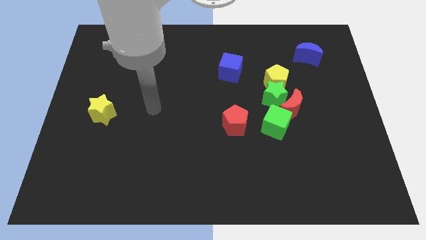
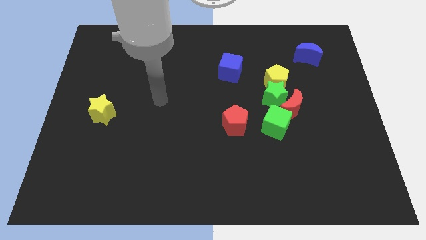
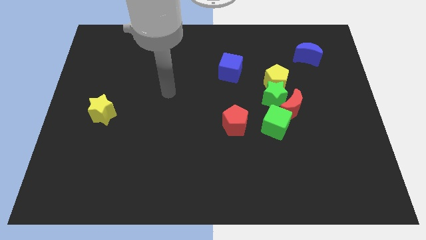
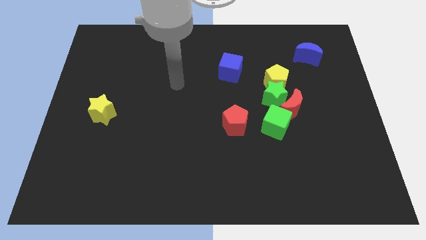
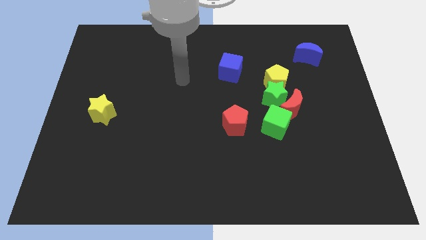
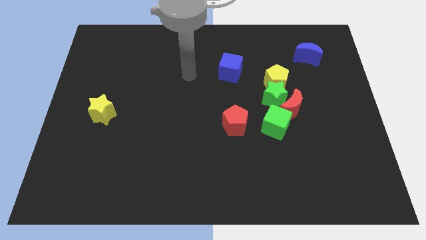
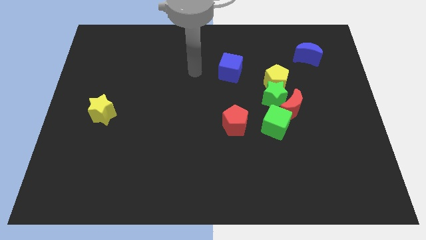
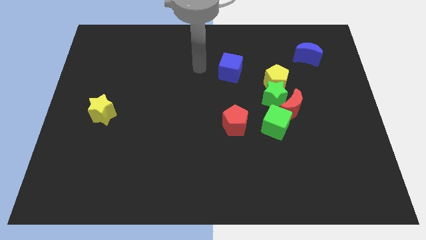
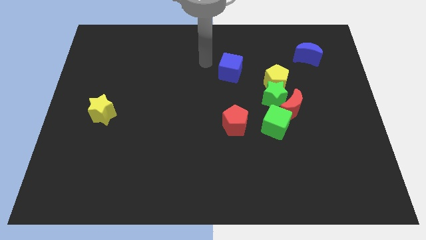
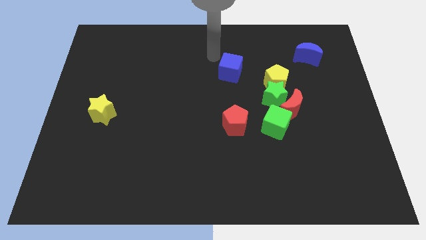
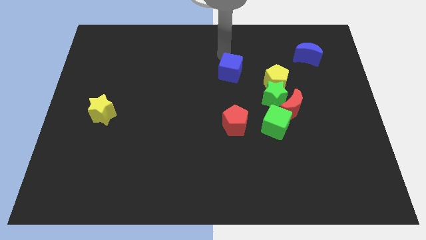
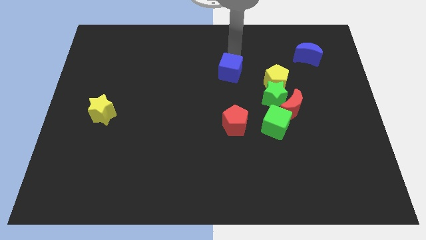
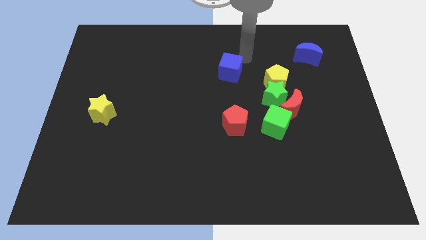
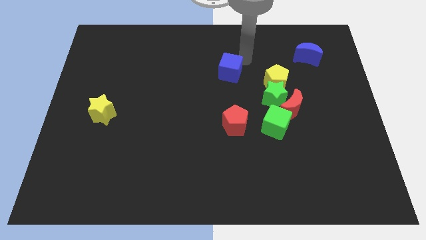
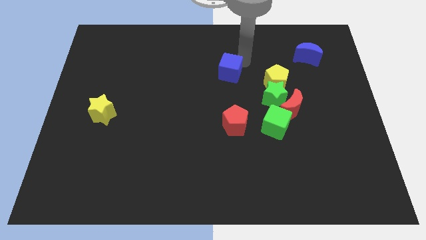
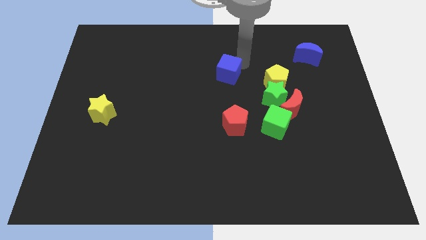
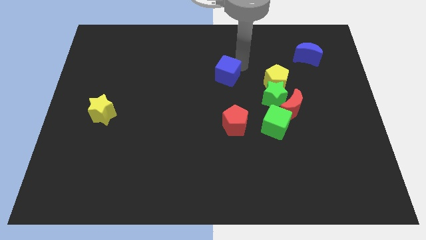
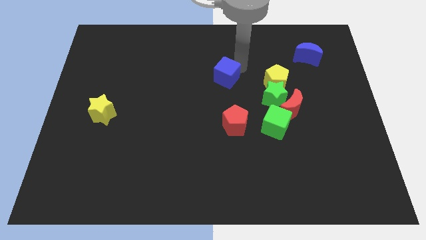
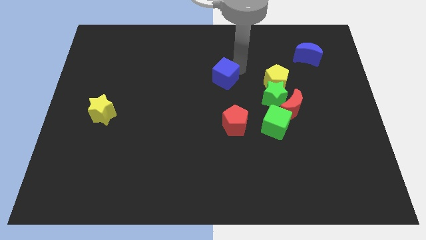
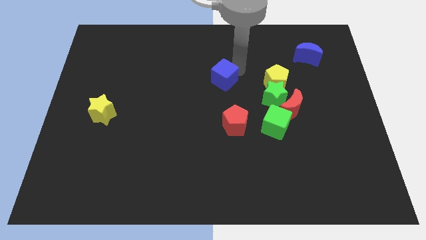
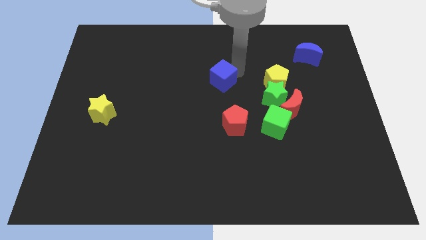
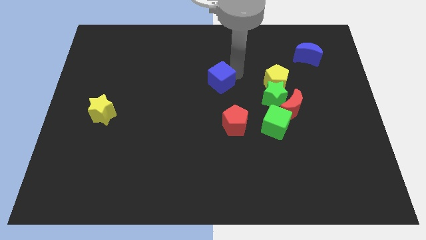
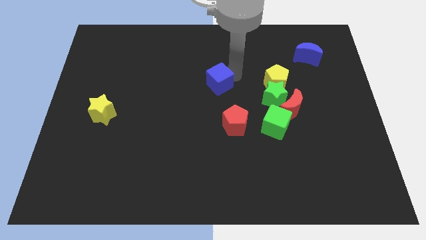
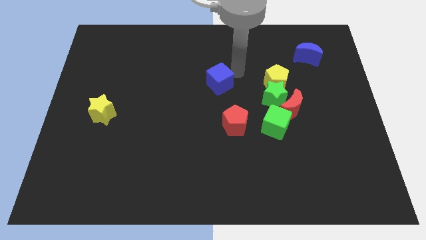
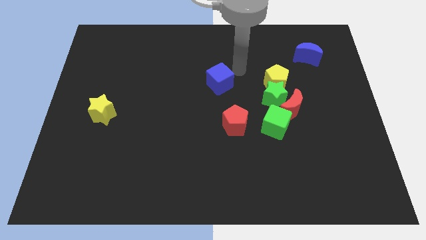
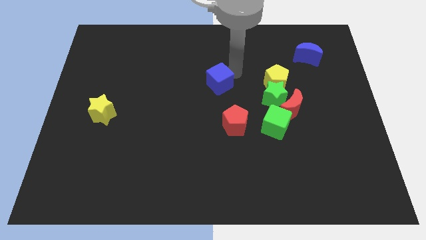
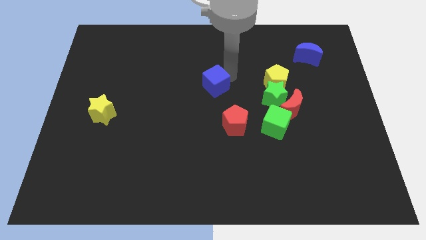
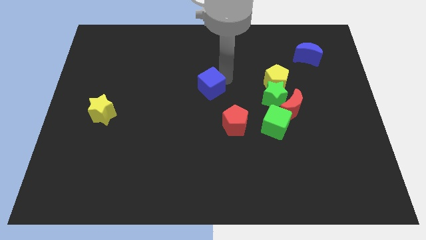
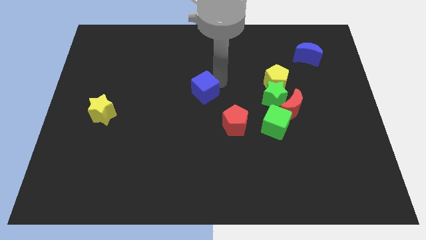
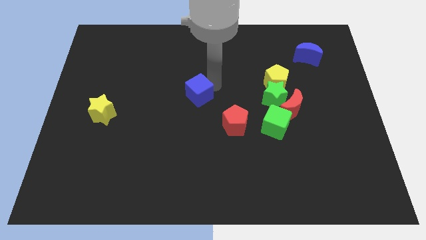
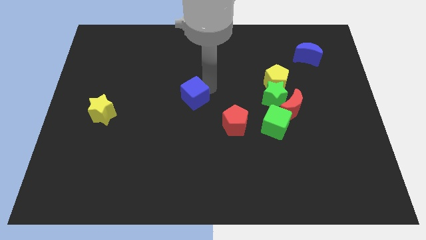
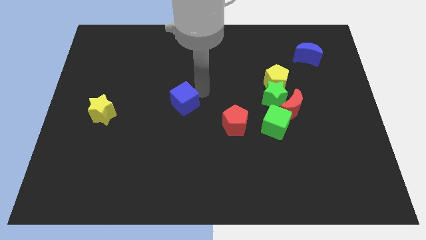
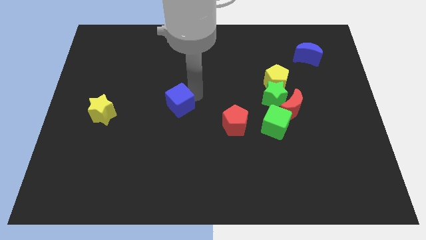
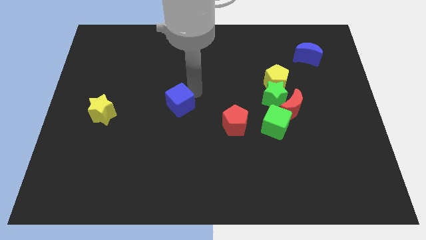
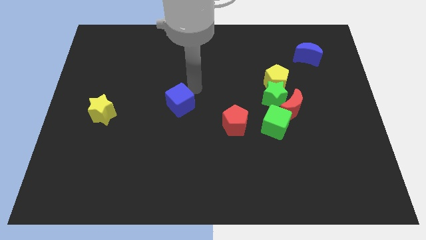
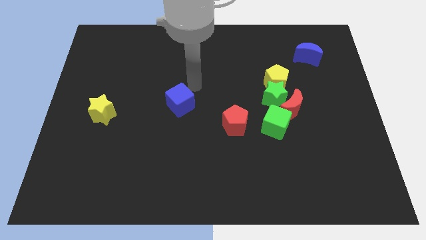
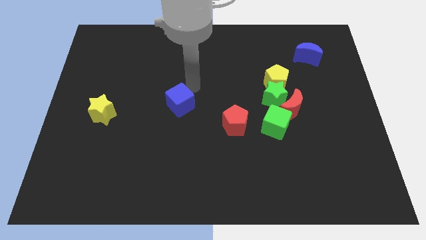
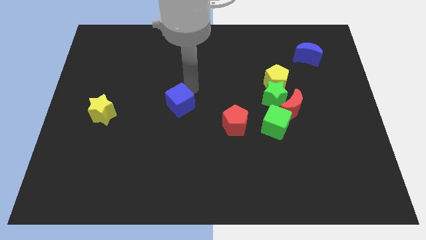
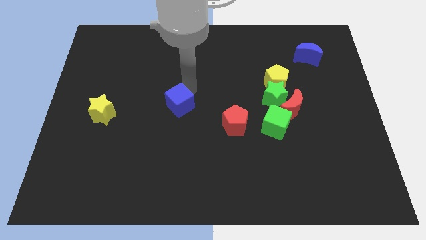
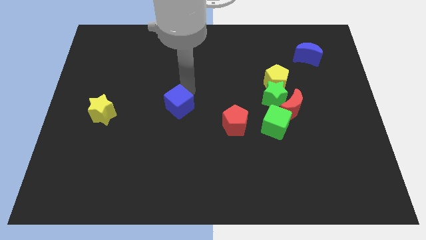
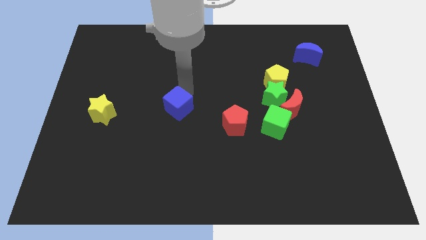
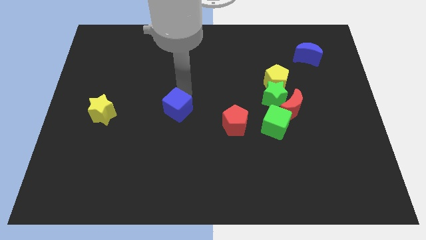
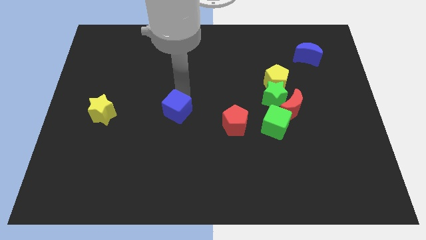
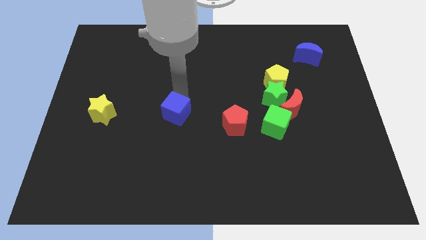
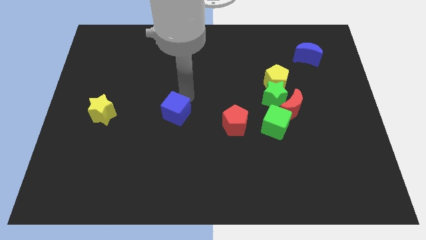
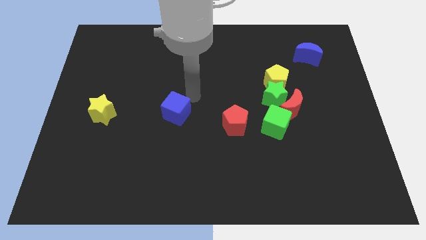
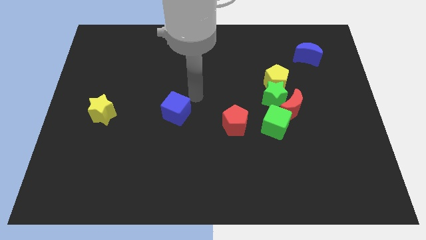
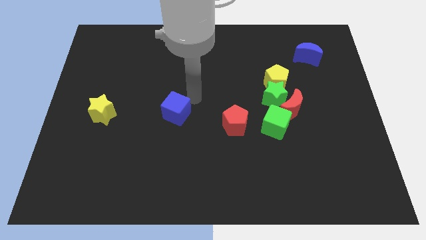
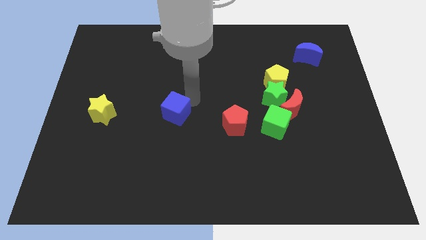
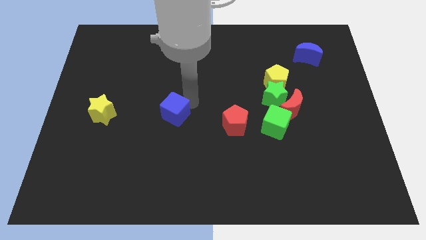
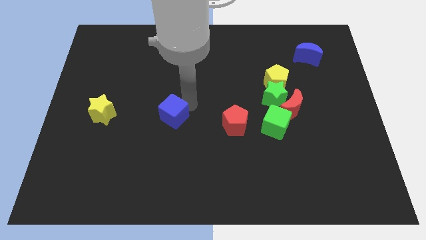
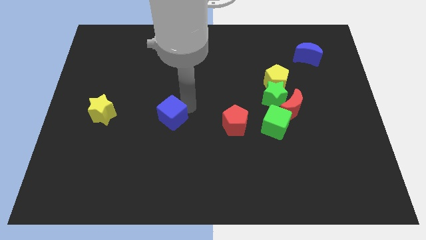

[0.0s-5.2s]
move the blue cube down and then to the left

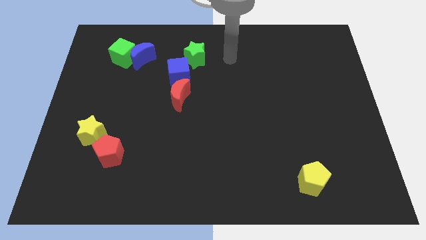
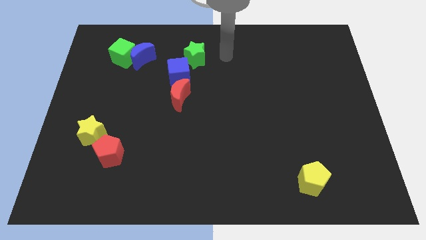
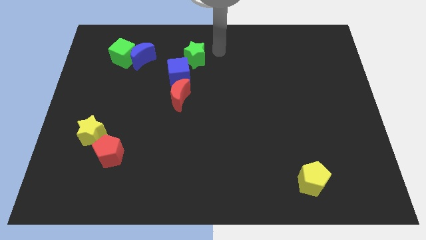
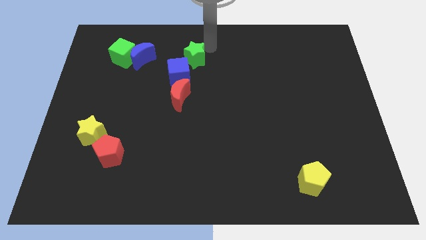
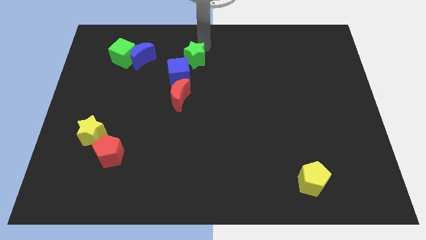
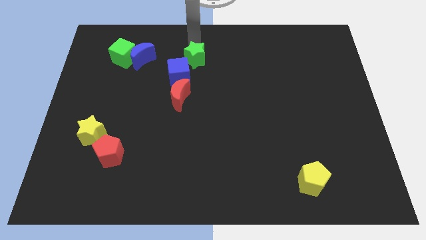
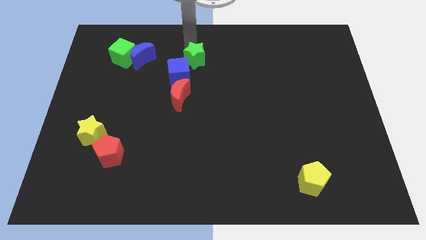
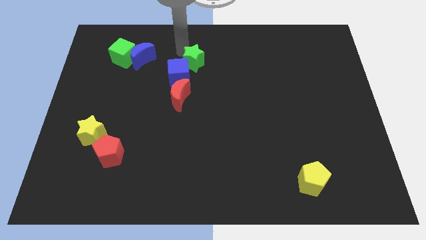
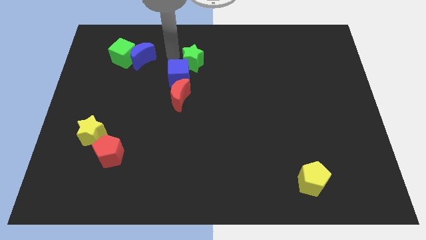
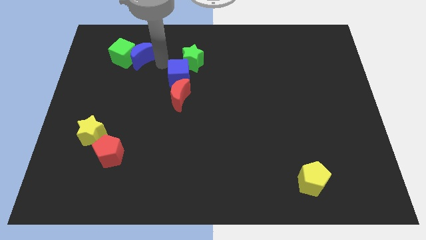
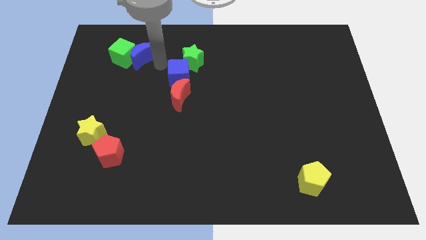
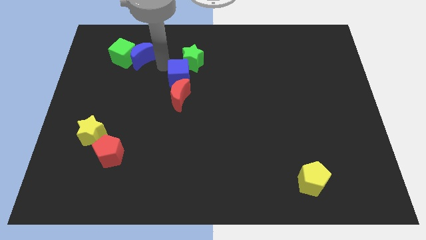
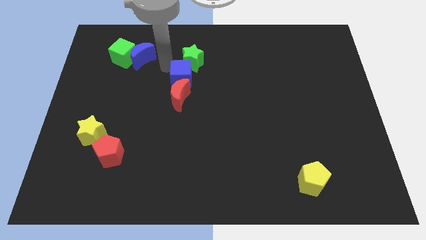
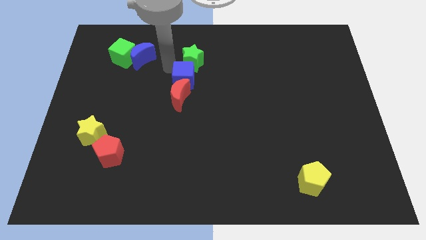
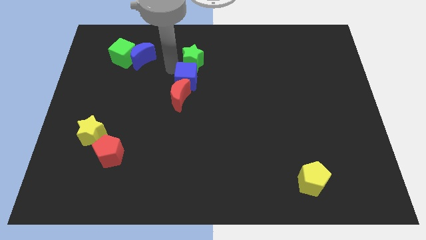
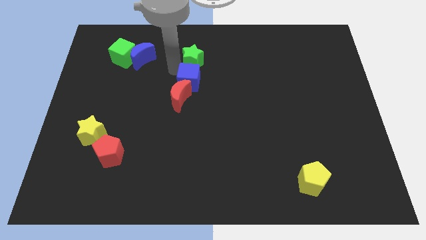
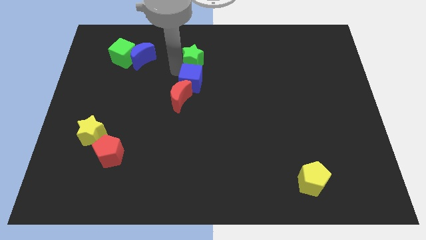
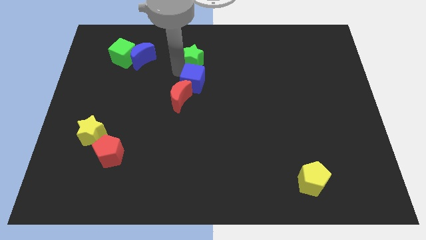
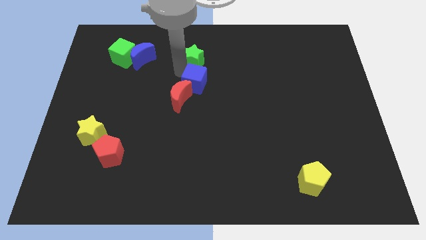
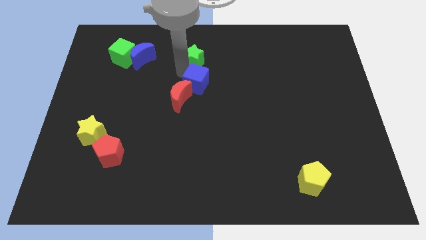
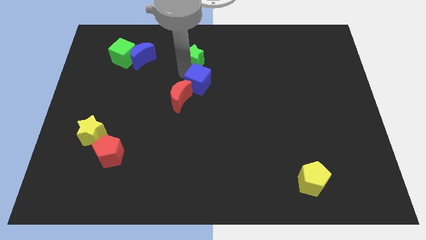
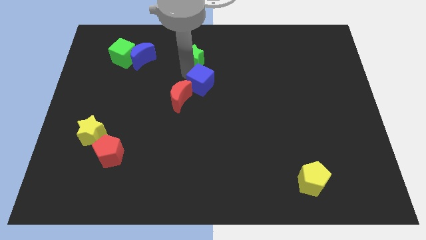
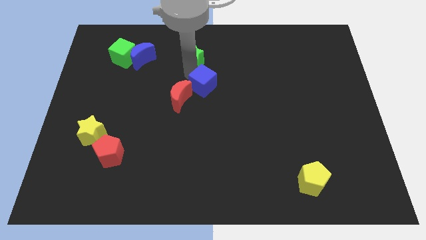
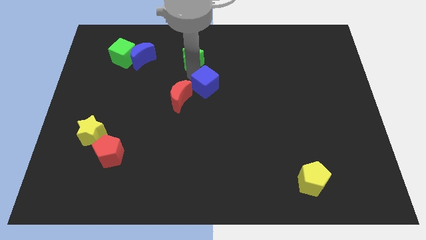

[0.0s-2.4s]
slide the blue cube downwards and to the right somewhat

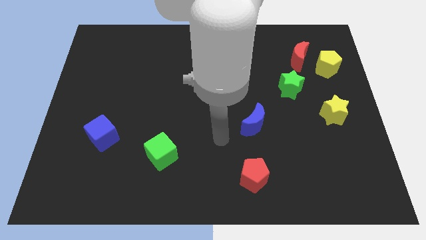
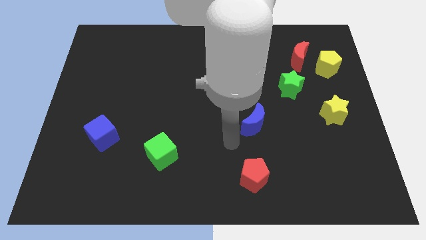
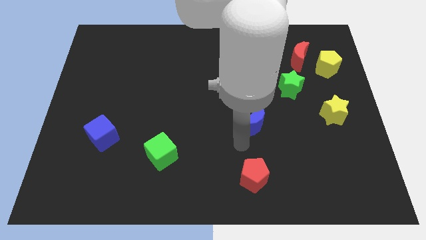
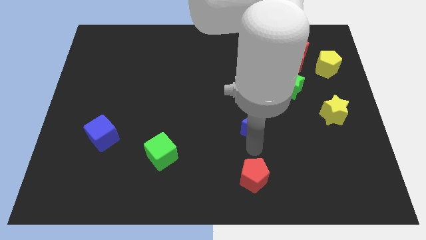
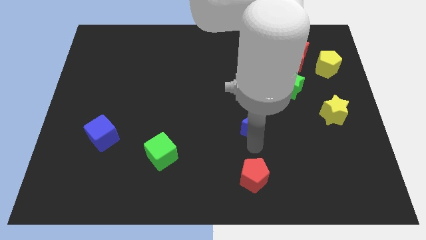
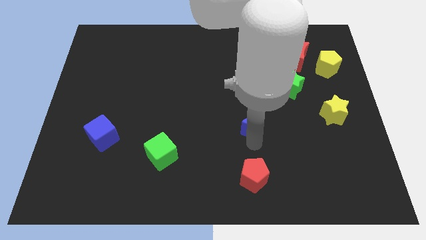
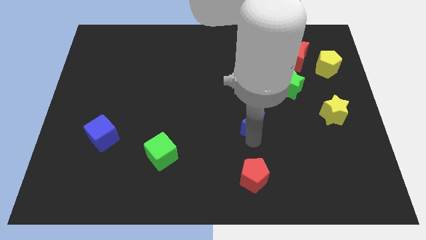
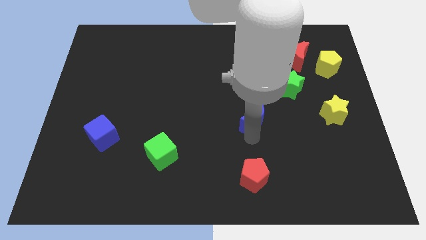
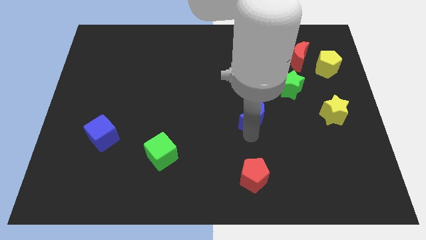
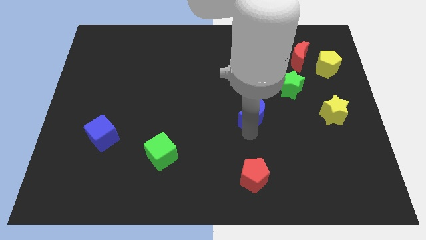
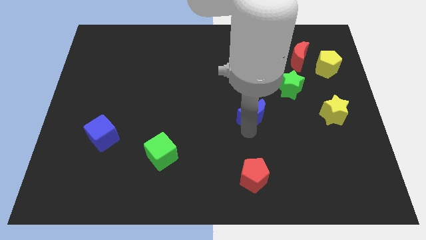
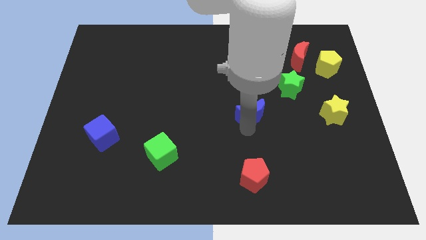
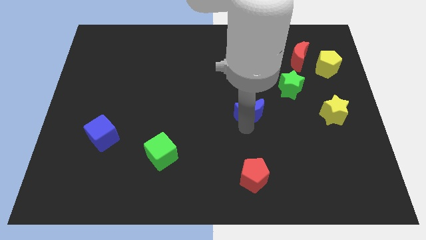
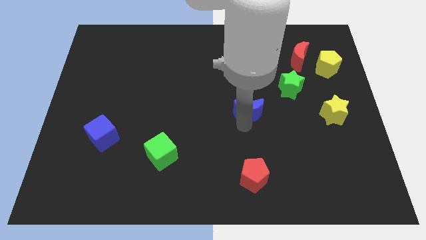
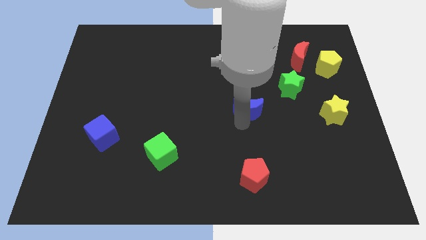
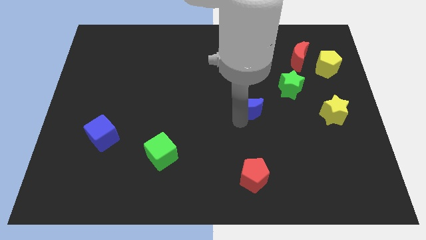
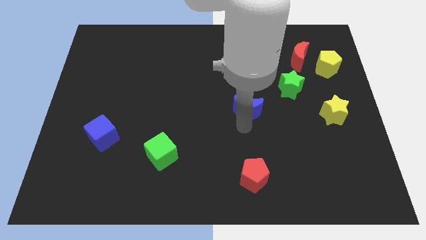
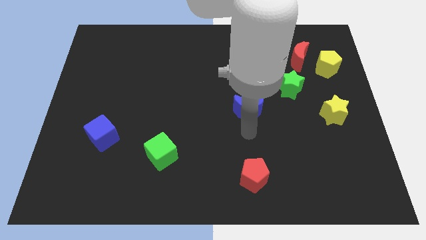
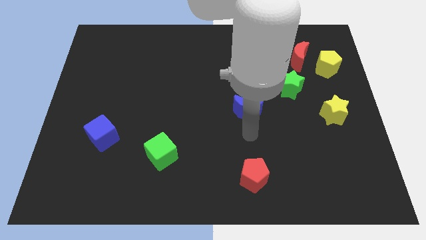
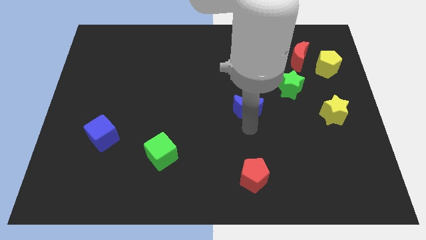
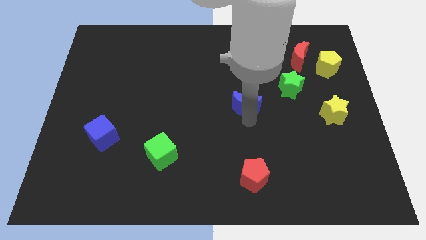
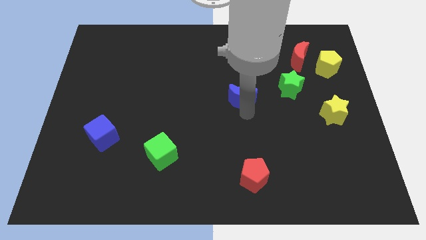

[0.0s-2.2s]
move the blue moon up slightly
